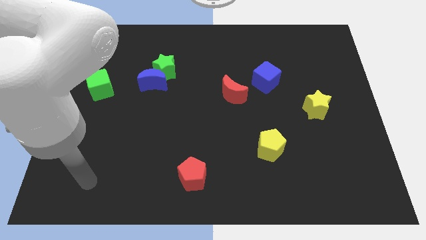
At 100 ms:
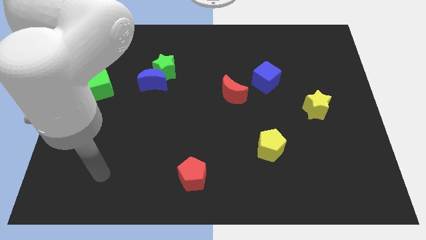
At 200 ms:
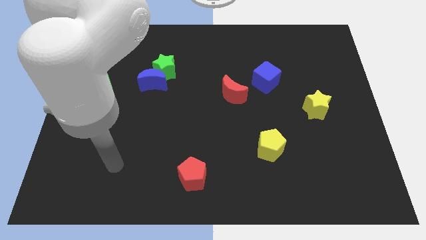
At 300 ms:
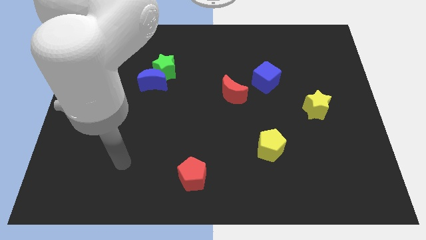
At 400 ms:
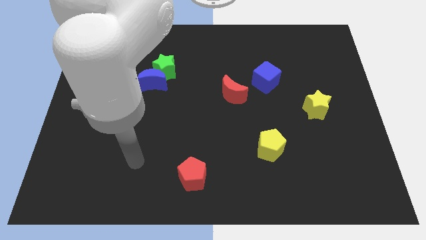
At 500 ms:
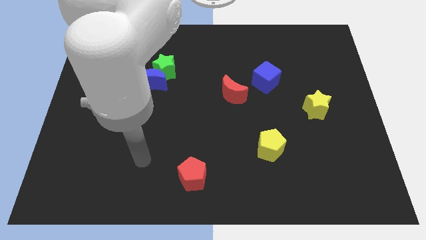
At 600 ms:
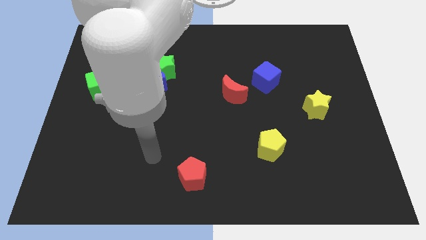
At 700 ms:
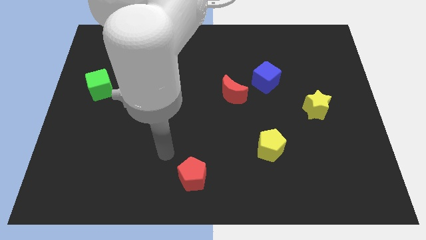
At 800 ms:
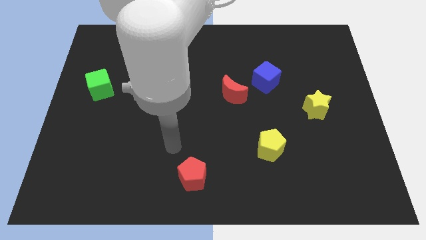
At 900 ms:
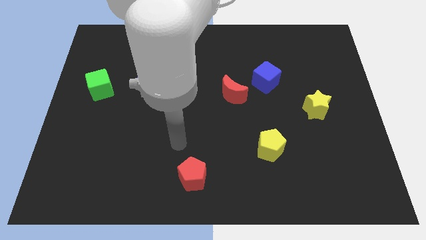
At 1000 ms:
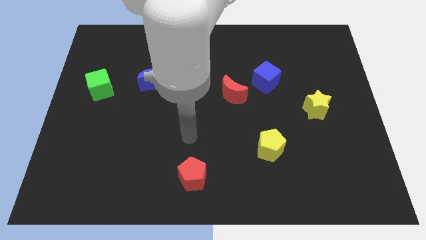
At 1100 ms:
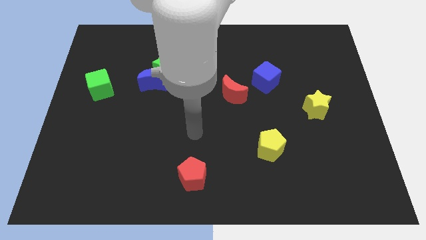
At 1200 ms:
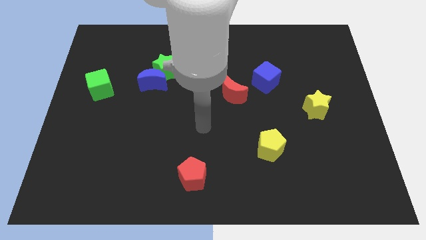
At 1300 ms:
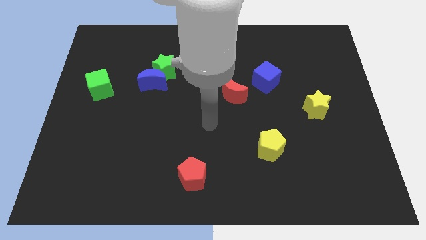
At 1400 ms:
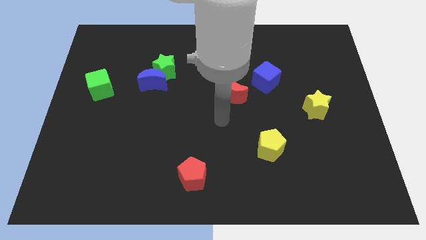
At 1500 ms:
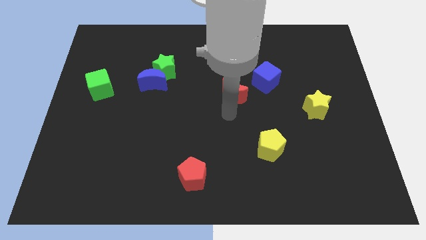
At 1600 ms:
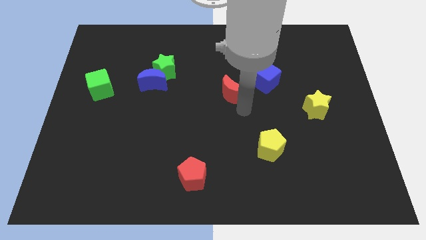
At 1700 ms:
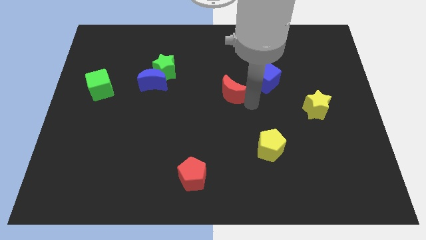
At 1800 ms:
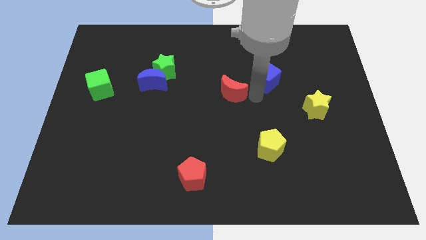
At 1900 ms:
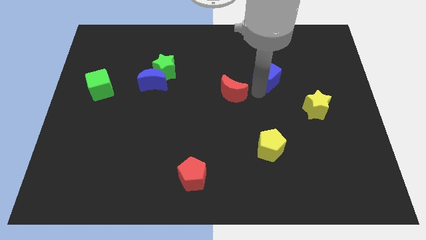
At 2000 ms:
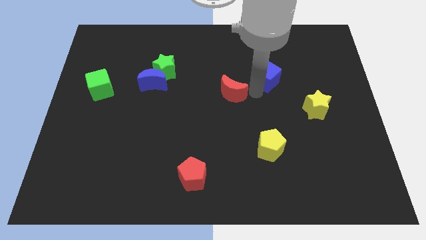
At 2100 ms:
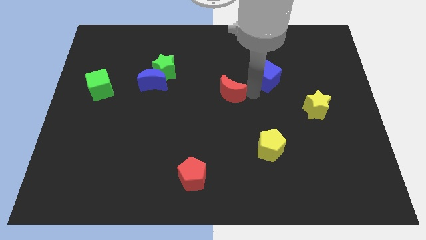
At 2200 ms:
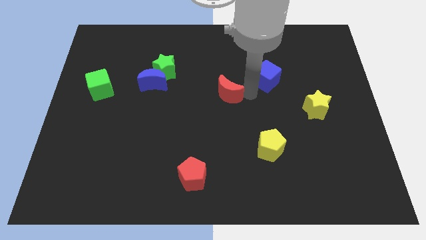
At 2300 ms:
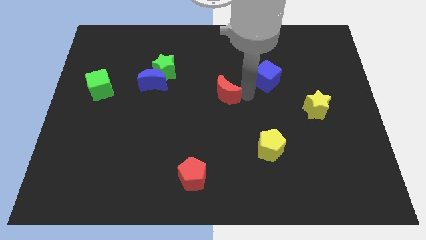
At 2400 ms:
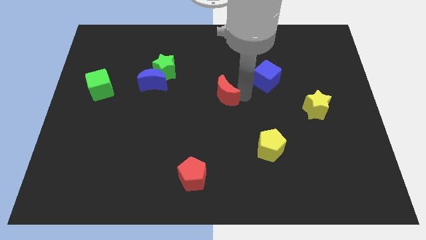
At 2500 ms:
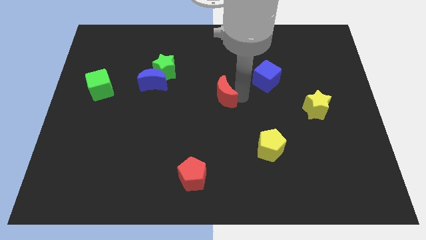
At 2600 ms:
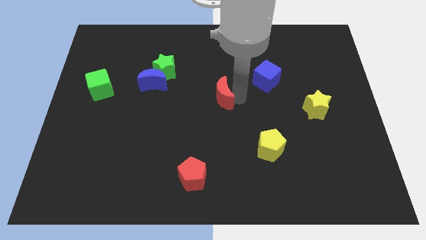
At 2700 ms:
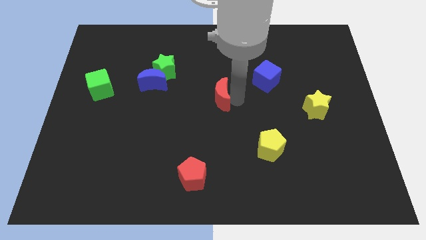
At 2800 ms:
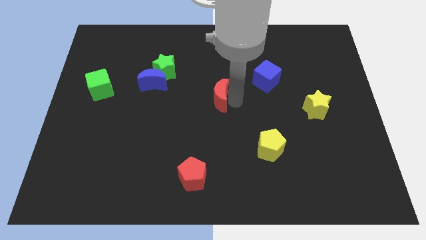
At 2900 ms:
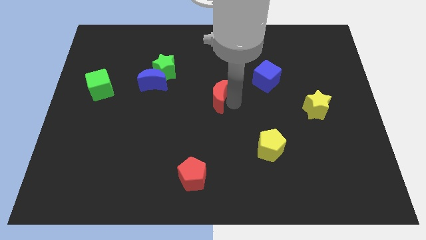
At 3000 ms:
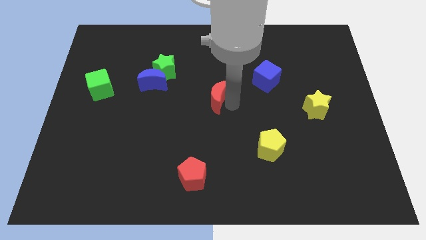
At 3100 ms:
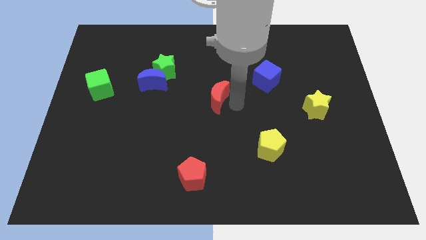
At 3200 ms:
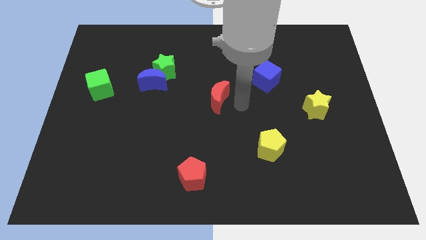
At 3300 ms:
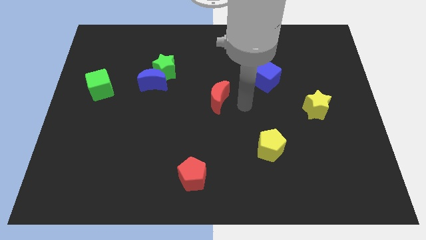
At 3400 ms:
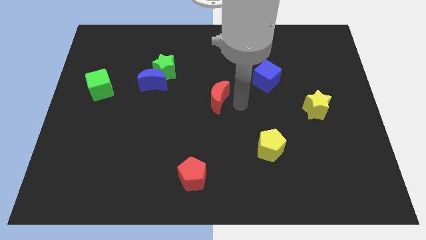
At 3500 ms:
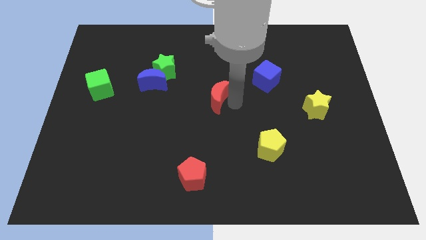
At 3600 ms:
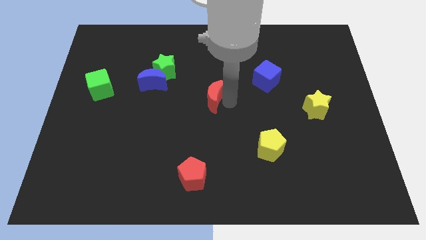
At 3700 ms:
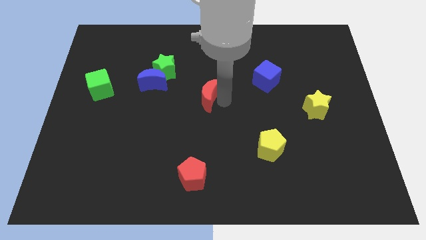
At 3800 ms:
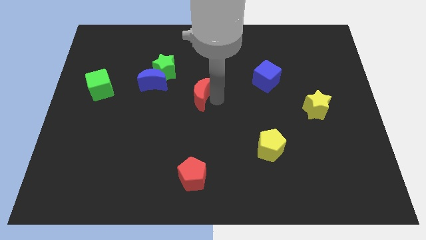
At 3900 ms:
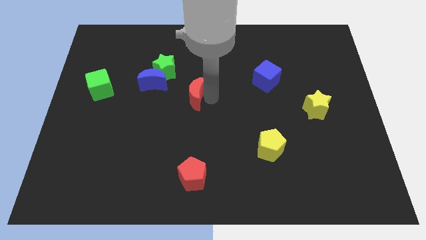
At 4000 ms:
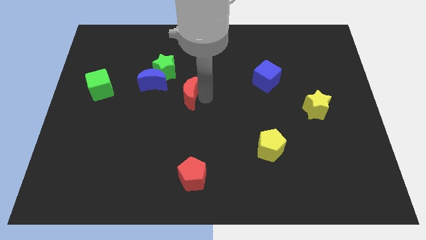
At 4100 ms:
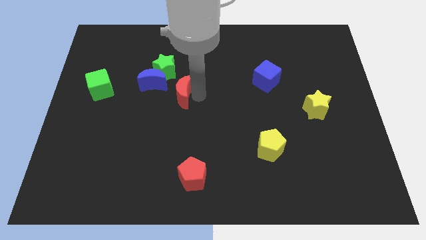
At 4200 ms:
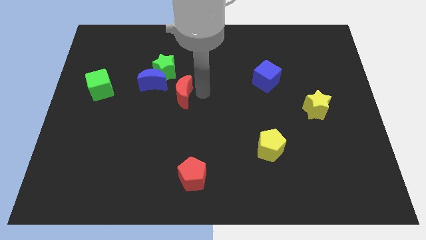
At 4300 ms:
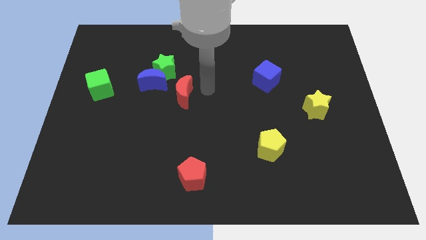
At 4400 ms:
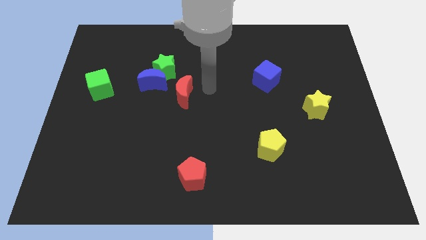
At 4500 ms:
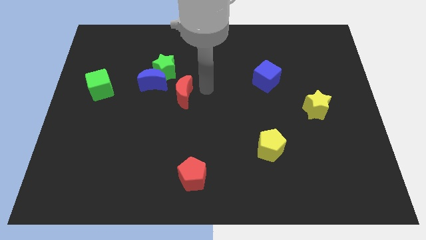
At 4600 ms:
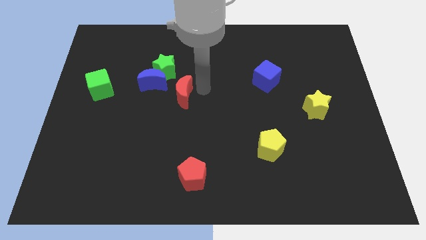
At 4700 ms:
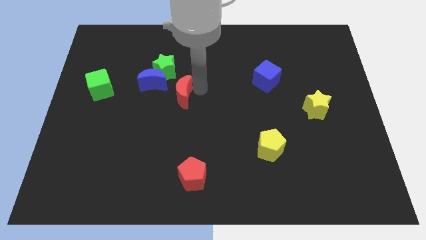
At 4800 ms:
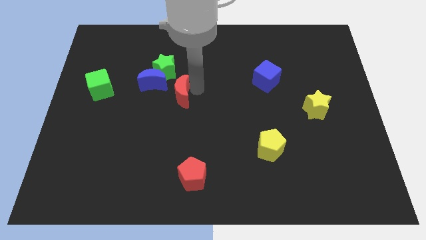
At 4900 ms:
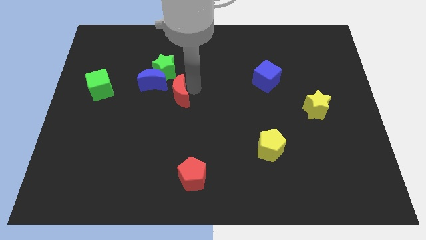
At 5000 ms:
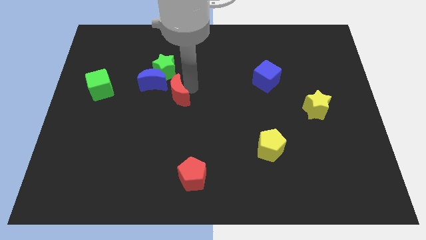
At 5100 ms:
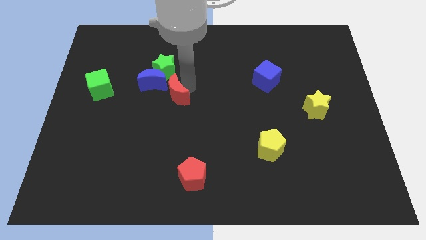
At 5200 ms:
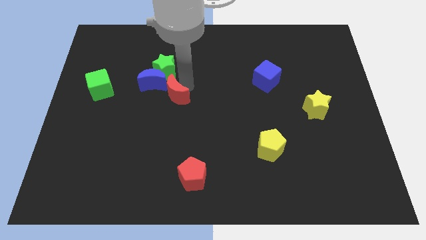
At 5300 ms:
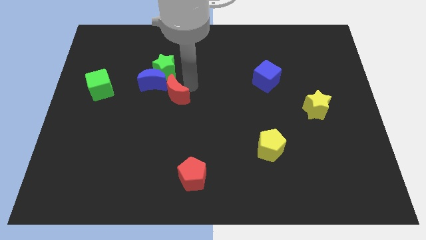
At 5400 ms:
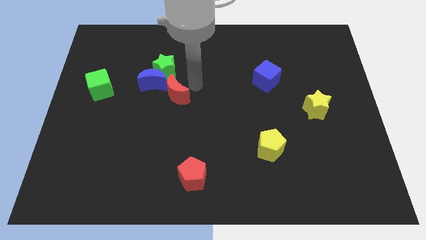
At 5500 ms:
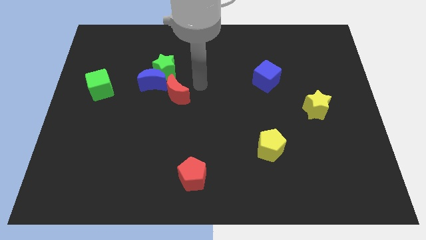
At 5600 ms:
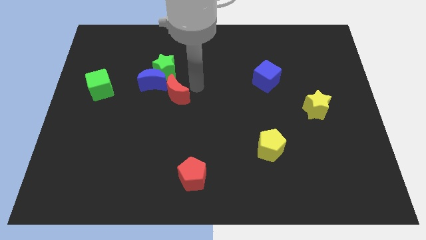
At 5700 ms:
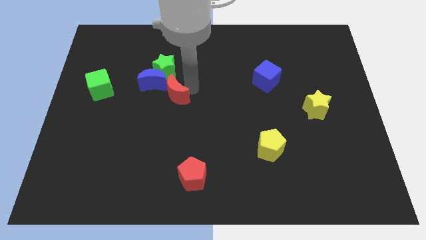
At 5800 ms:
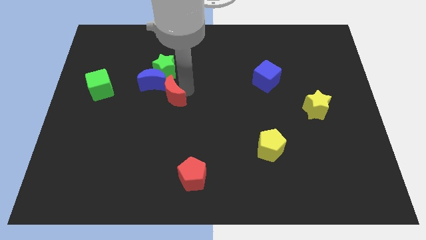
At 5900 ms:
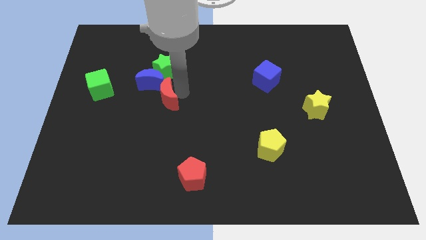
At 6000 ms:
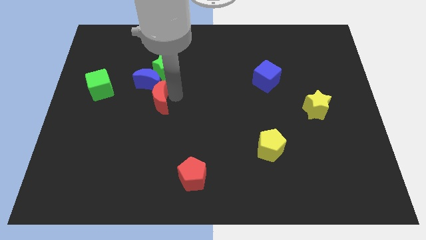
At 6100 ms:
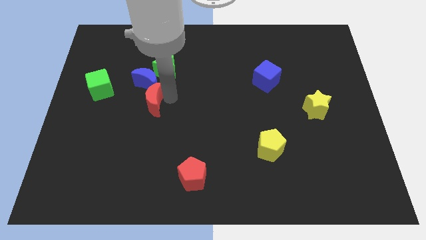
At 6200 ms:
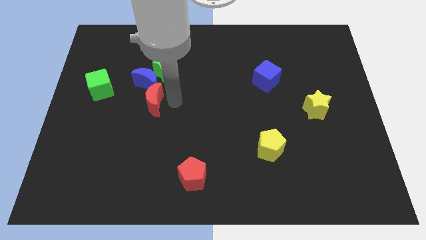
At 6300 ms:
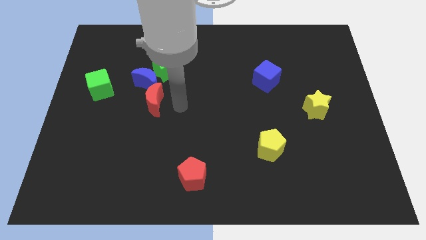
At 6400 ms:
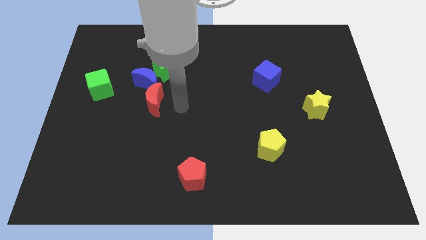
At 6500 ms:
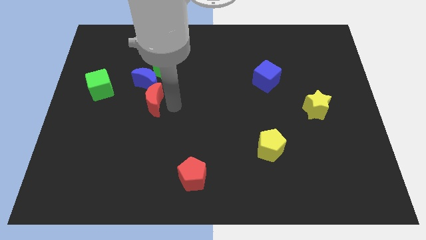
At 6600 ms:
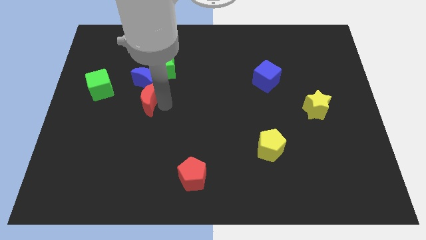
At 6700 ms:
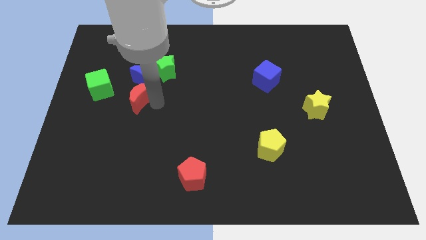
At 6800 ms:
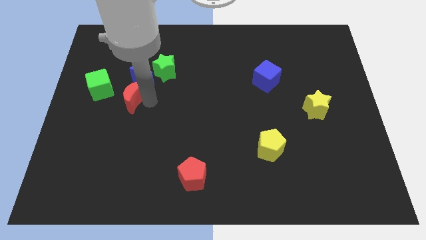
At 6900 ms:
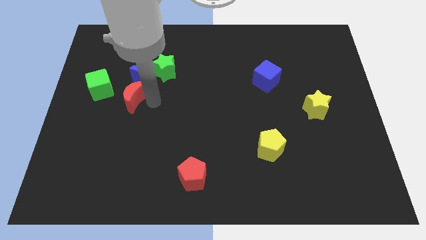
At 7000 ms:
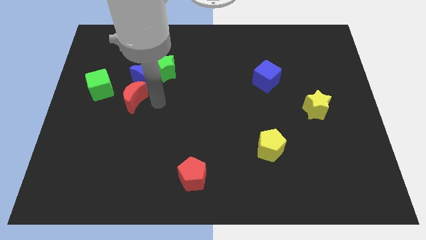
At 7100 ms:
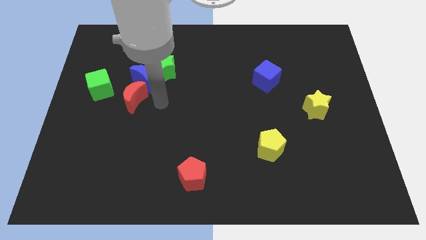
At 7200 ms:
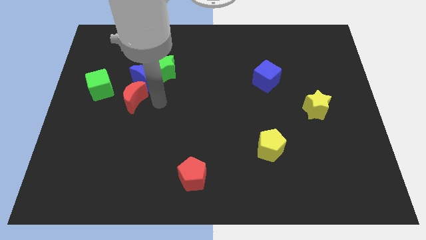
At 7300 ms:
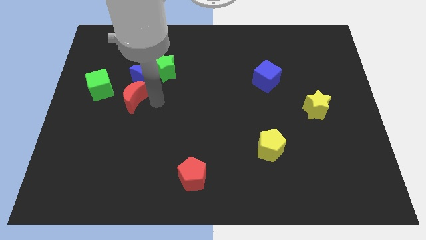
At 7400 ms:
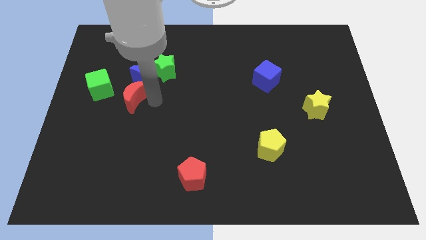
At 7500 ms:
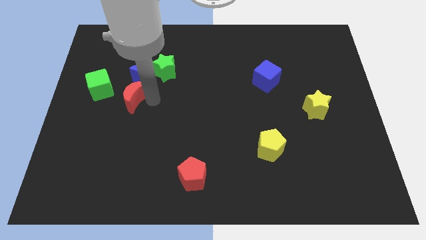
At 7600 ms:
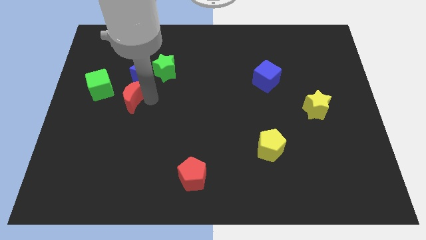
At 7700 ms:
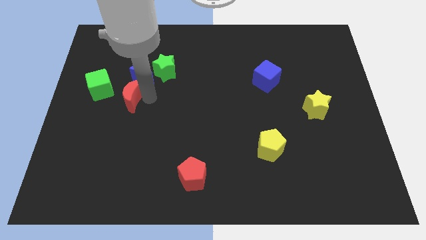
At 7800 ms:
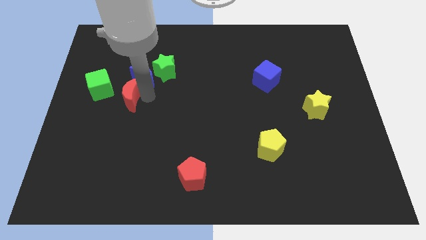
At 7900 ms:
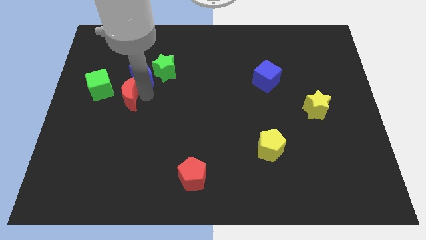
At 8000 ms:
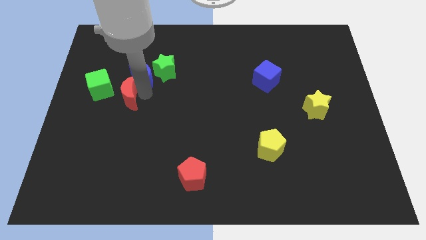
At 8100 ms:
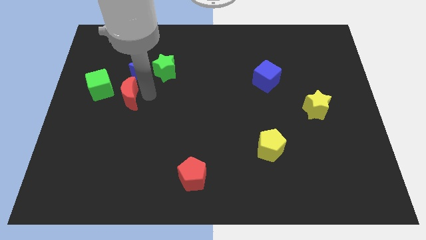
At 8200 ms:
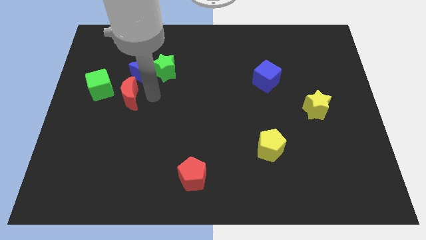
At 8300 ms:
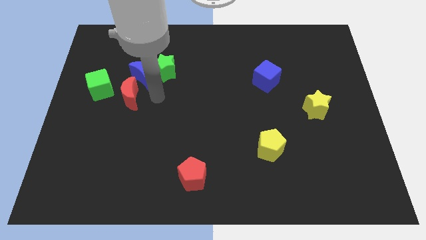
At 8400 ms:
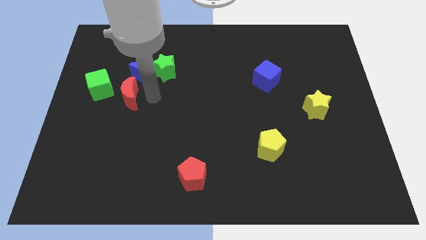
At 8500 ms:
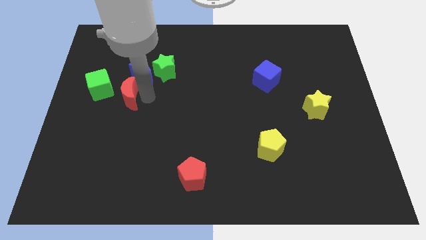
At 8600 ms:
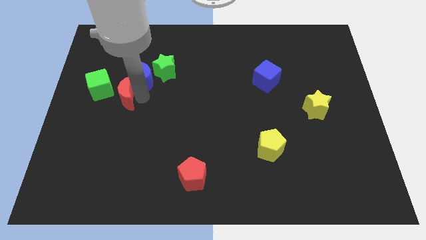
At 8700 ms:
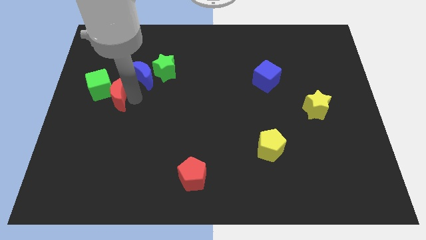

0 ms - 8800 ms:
put the red moon close to the green cube
